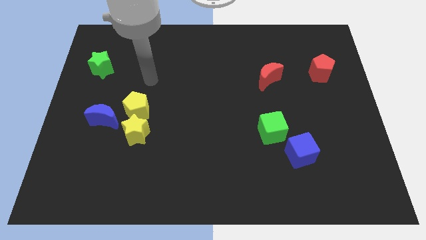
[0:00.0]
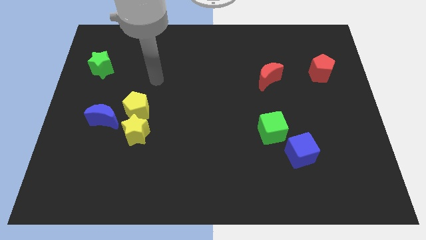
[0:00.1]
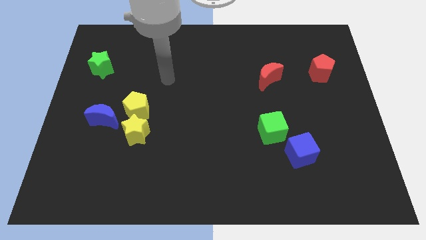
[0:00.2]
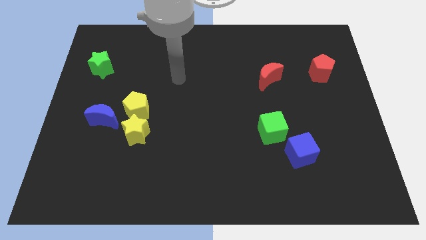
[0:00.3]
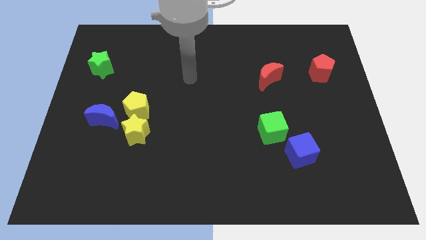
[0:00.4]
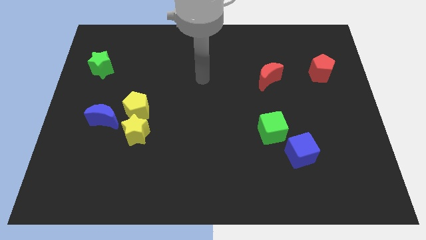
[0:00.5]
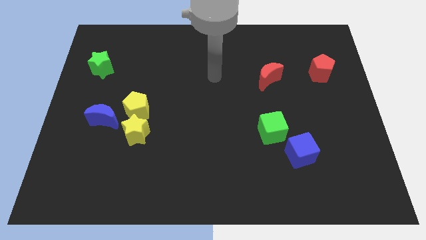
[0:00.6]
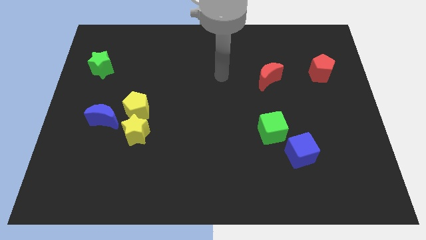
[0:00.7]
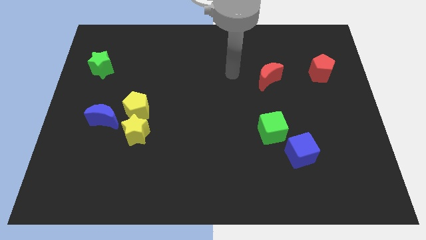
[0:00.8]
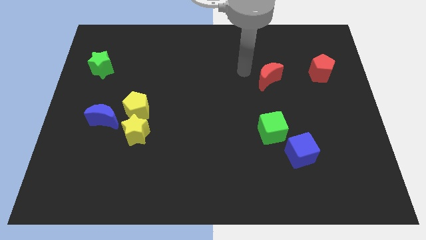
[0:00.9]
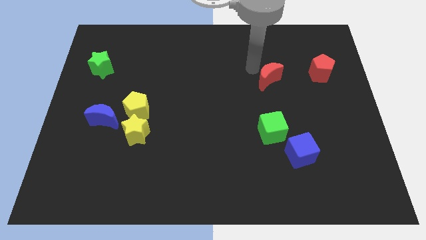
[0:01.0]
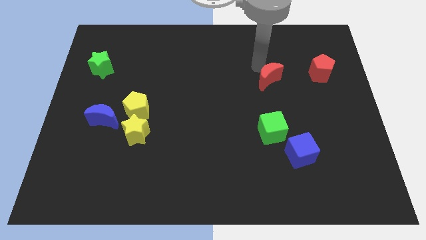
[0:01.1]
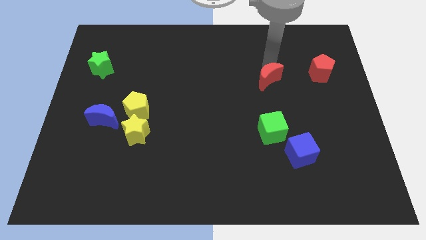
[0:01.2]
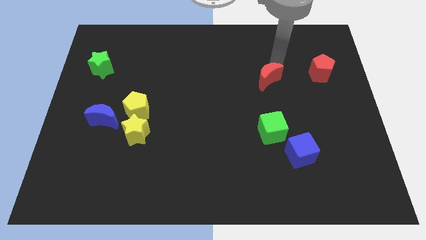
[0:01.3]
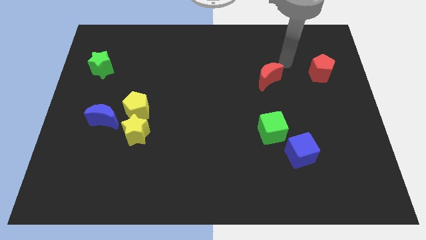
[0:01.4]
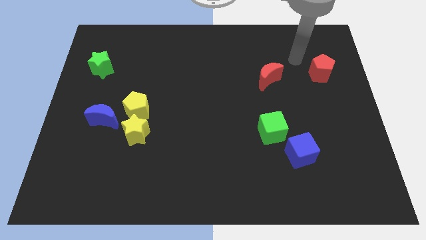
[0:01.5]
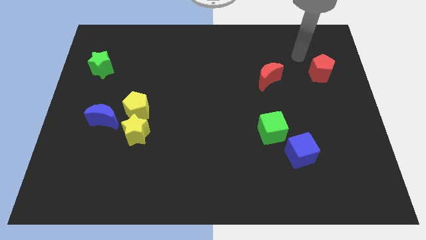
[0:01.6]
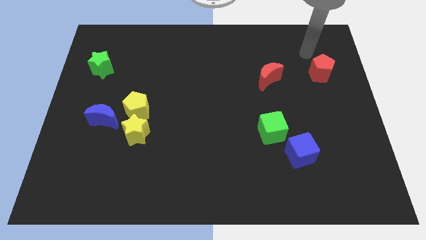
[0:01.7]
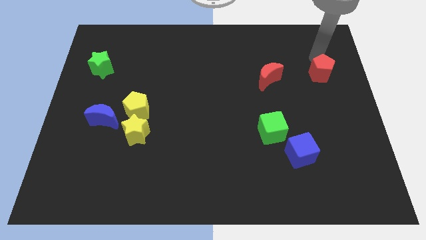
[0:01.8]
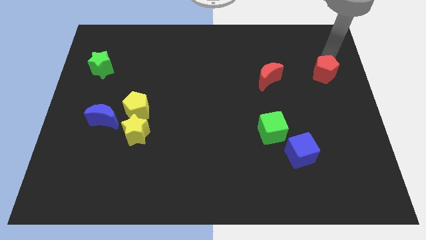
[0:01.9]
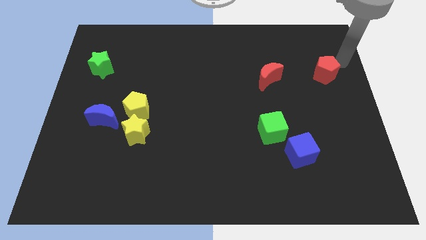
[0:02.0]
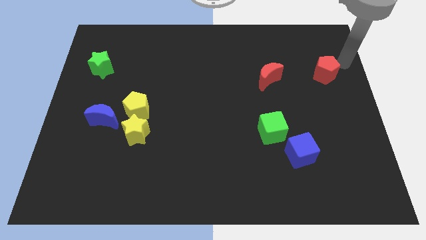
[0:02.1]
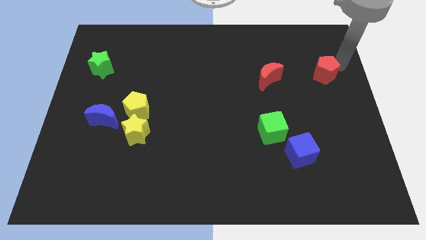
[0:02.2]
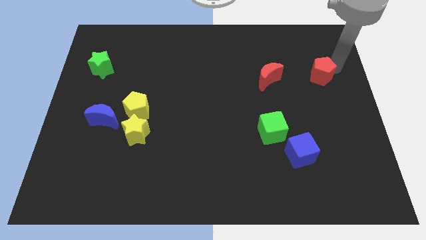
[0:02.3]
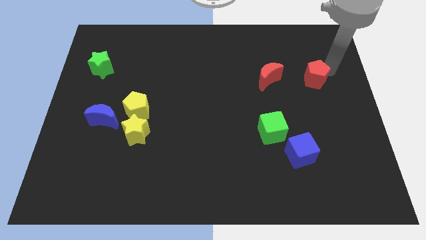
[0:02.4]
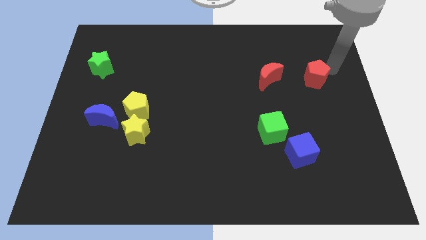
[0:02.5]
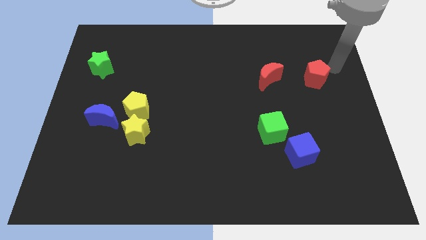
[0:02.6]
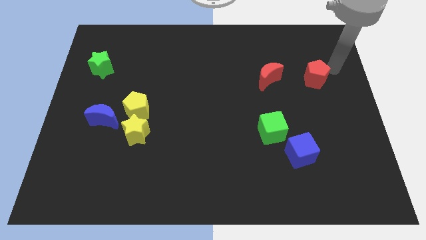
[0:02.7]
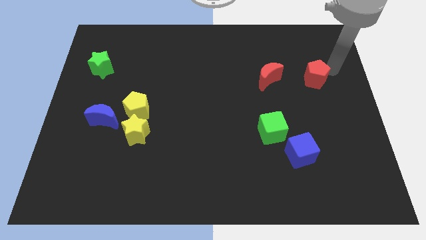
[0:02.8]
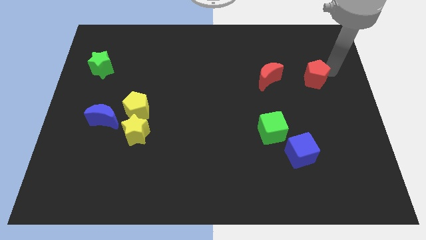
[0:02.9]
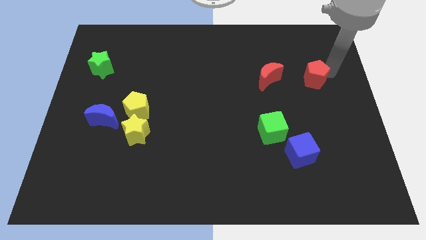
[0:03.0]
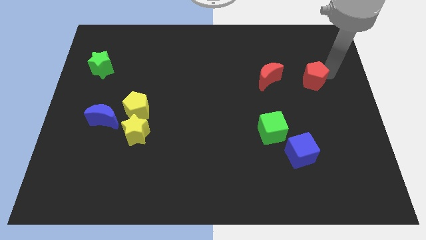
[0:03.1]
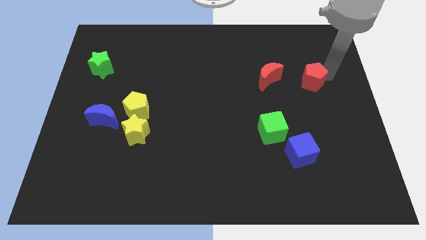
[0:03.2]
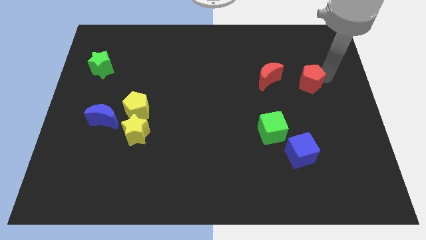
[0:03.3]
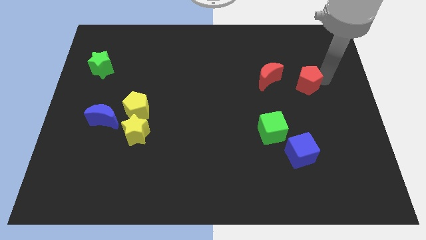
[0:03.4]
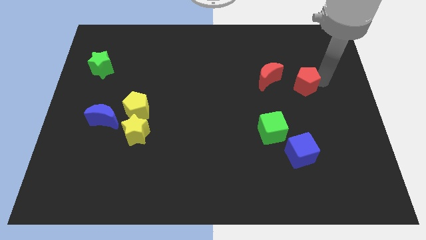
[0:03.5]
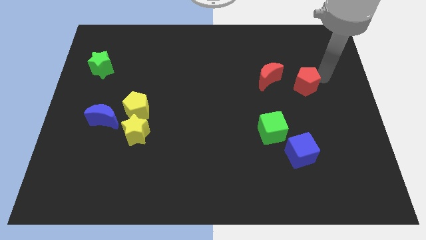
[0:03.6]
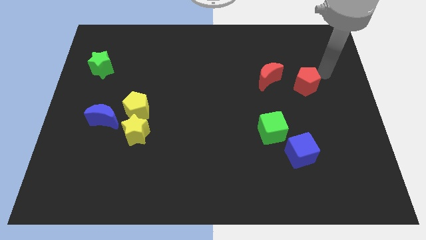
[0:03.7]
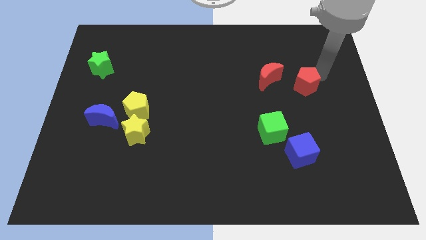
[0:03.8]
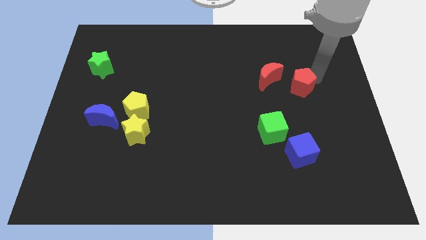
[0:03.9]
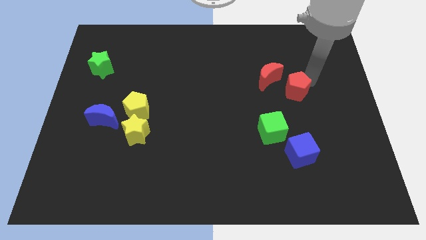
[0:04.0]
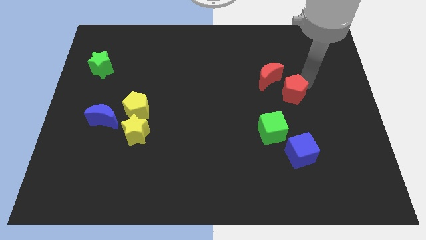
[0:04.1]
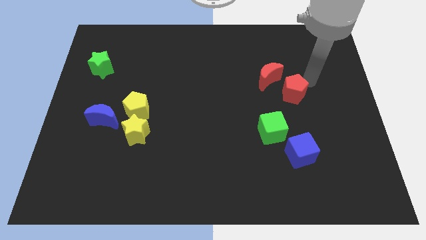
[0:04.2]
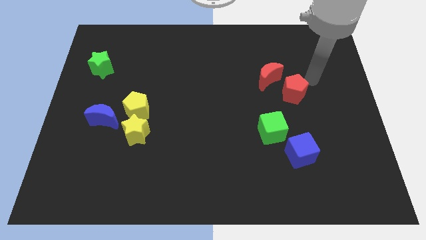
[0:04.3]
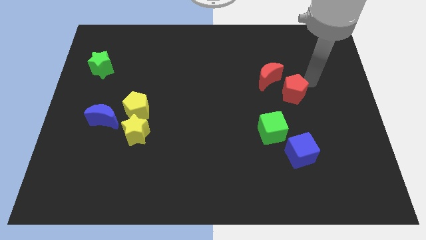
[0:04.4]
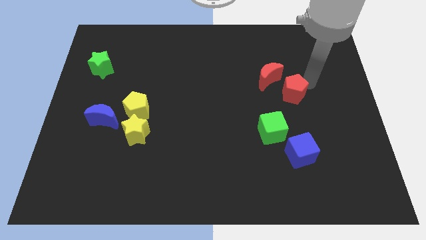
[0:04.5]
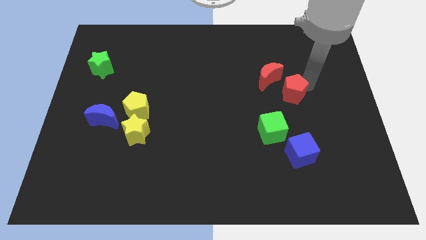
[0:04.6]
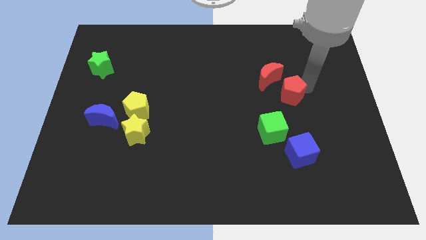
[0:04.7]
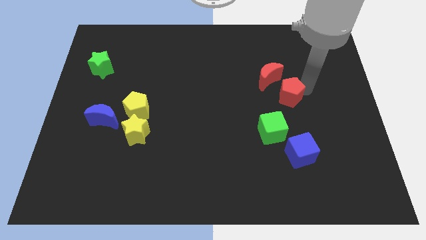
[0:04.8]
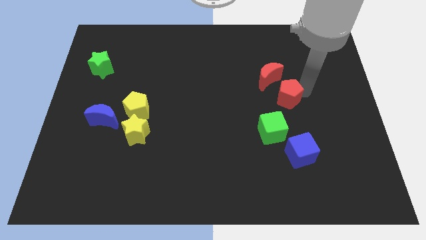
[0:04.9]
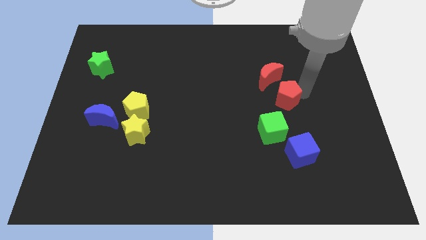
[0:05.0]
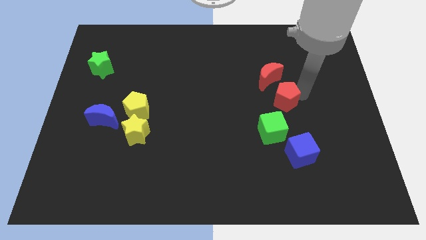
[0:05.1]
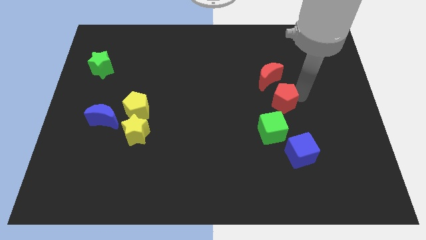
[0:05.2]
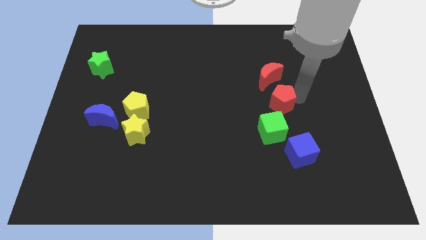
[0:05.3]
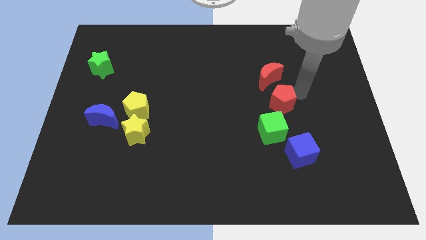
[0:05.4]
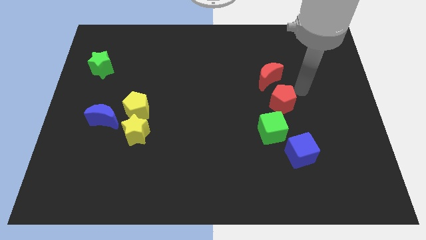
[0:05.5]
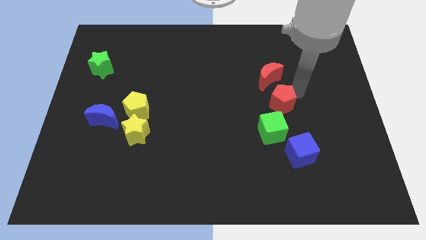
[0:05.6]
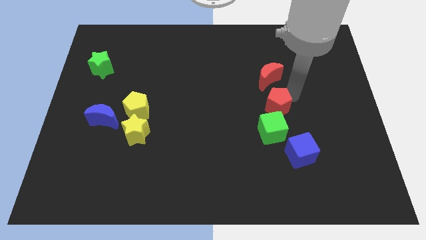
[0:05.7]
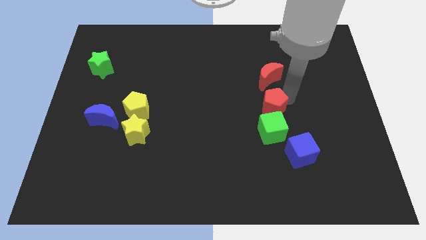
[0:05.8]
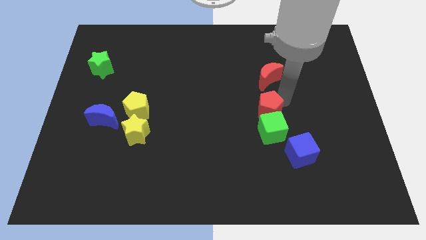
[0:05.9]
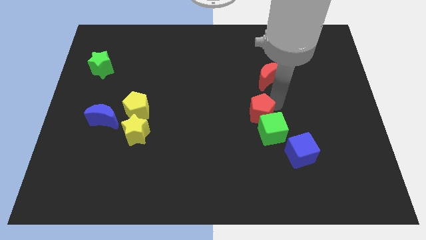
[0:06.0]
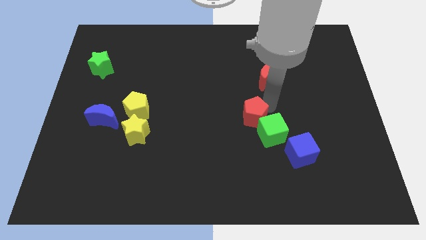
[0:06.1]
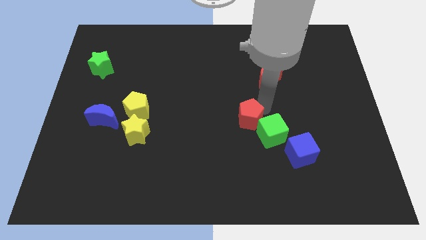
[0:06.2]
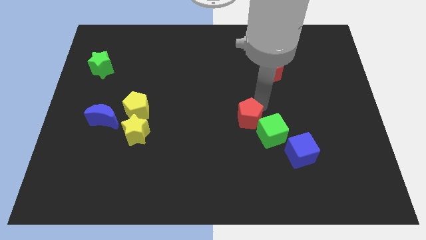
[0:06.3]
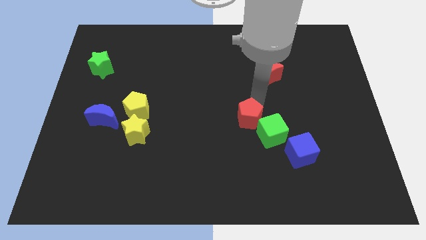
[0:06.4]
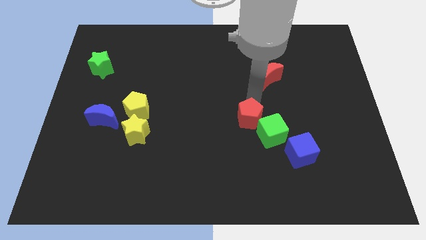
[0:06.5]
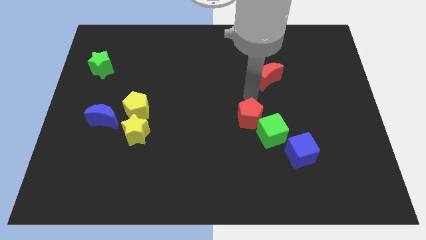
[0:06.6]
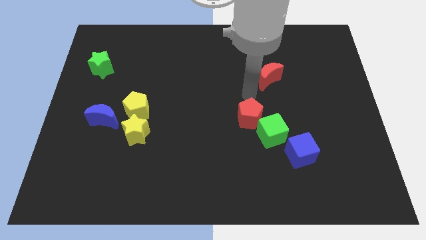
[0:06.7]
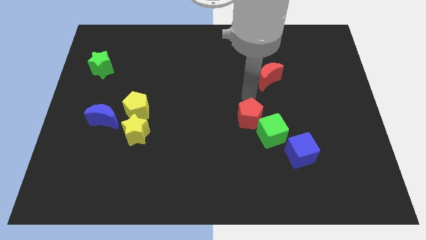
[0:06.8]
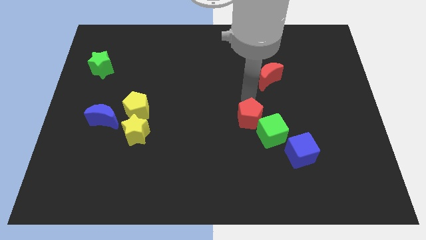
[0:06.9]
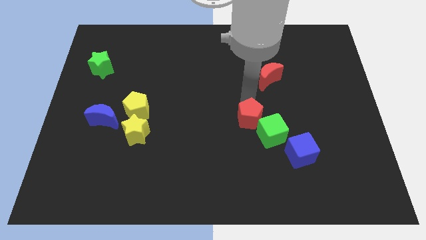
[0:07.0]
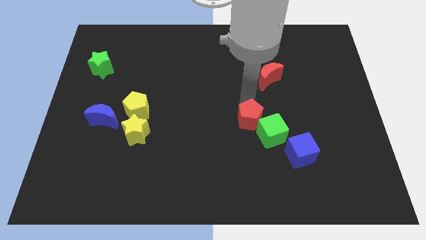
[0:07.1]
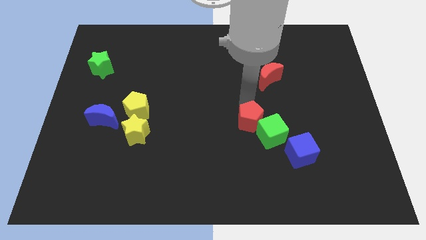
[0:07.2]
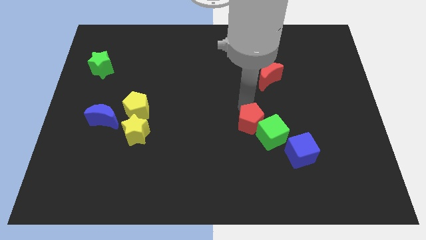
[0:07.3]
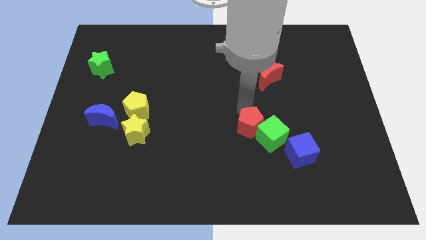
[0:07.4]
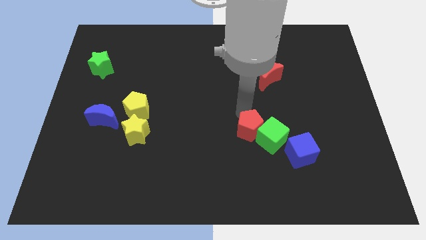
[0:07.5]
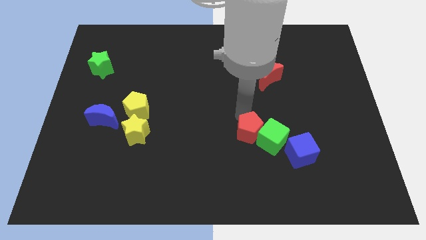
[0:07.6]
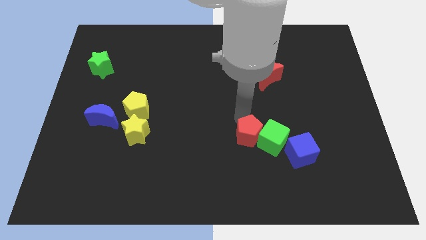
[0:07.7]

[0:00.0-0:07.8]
push the red pentagon to the bottom left of the green cube
